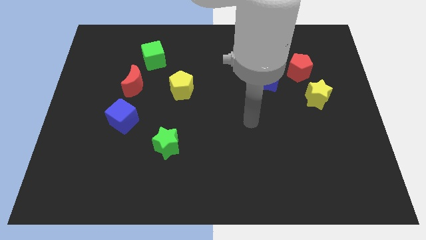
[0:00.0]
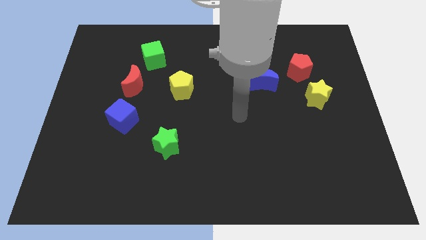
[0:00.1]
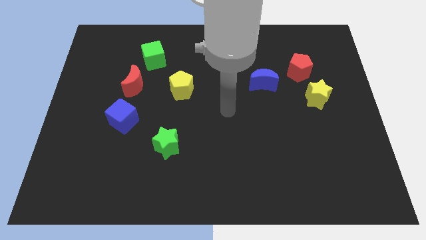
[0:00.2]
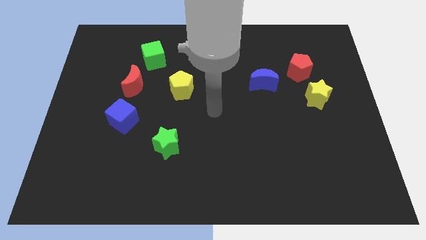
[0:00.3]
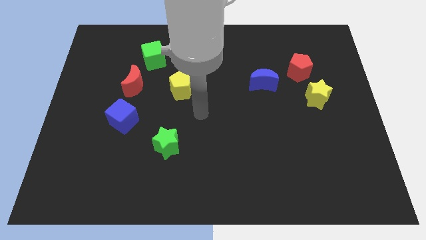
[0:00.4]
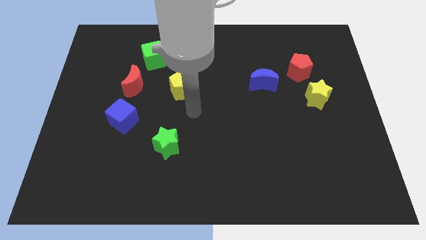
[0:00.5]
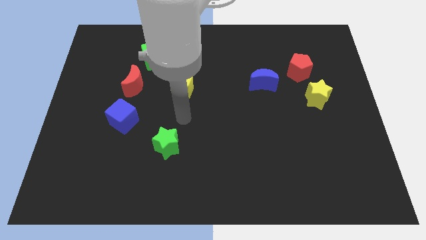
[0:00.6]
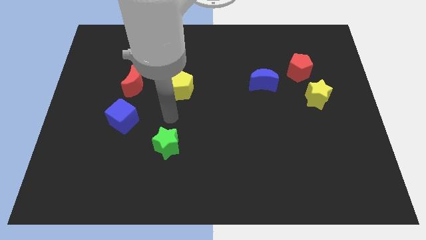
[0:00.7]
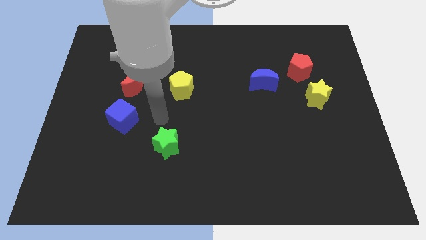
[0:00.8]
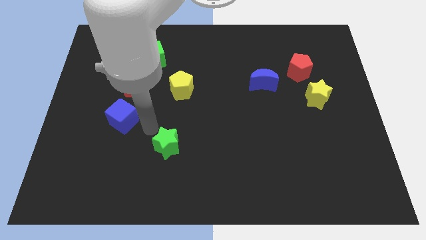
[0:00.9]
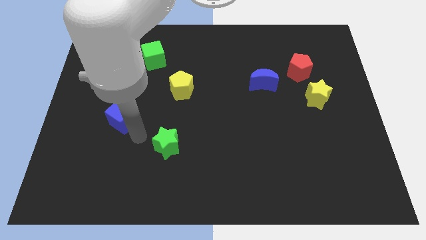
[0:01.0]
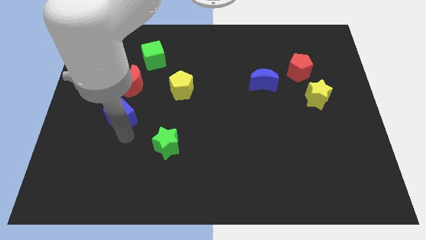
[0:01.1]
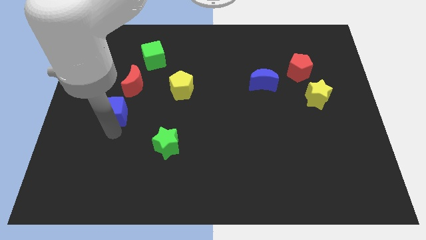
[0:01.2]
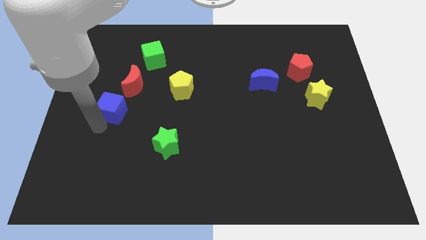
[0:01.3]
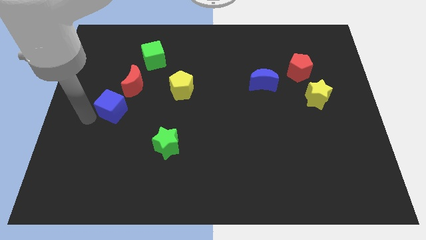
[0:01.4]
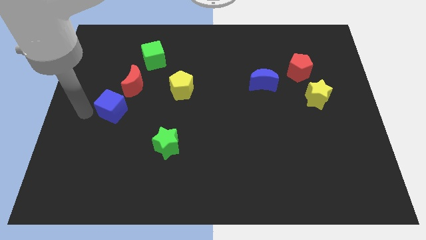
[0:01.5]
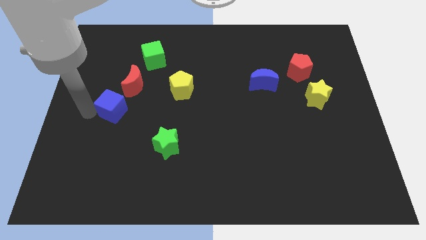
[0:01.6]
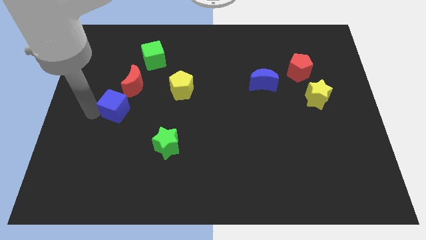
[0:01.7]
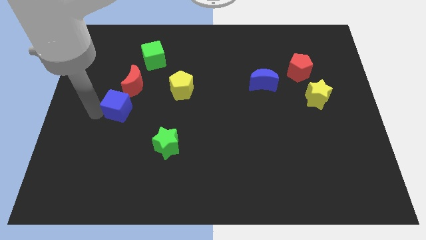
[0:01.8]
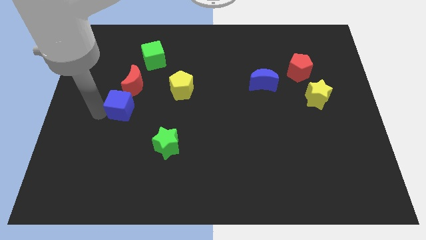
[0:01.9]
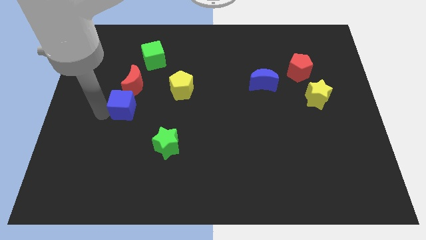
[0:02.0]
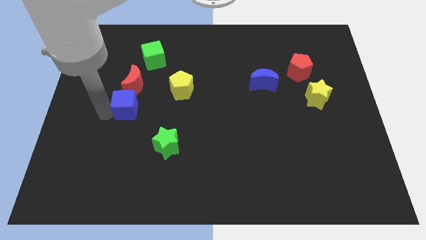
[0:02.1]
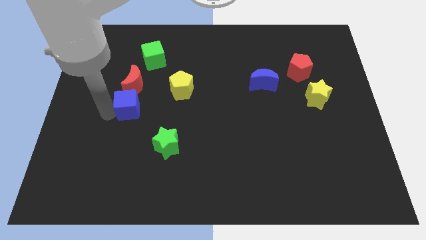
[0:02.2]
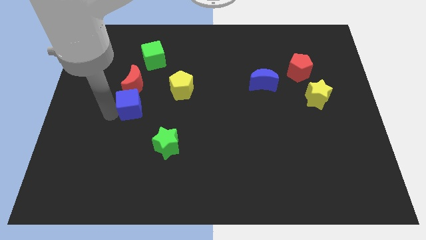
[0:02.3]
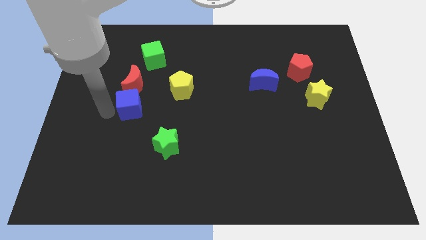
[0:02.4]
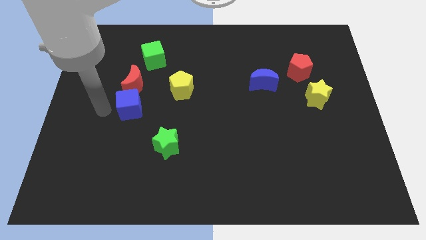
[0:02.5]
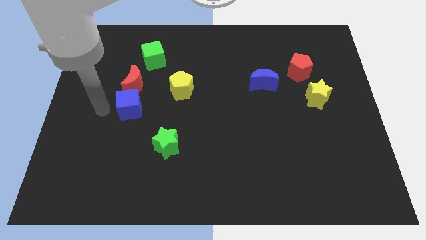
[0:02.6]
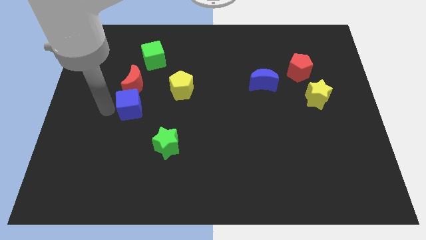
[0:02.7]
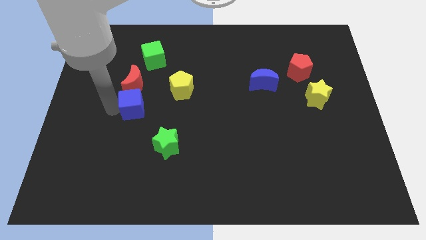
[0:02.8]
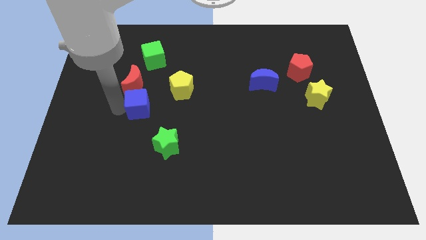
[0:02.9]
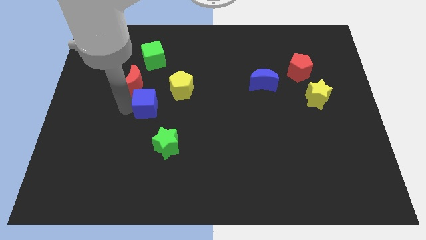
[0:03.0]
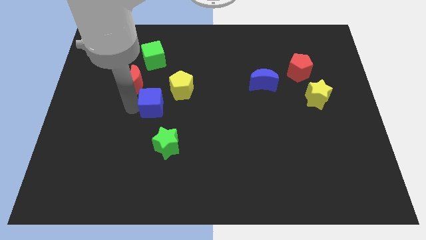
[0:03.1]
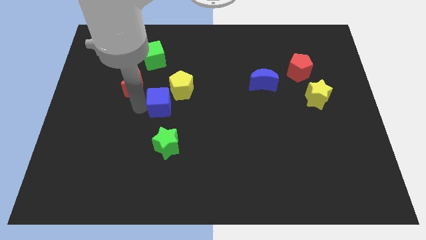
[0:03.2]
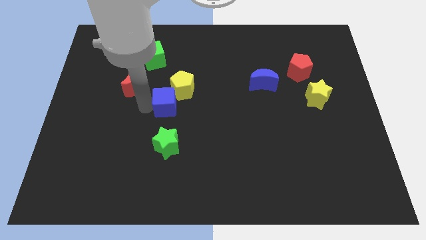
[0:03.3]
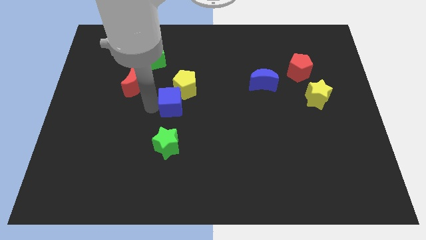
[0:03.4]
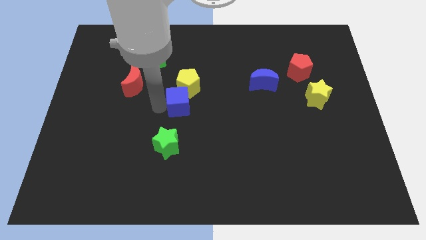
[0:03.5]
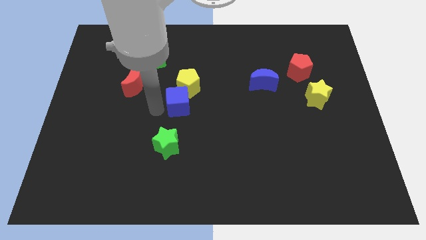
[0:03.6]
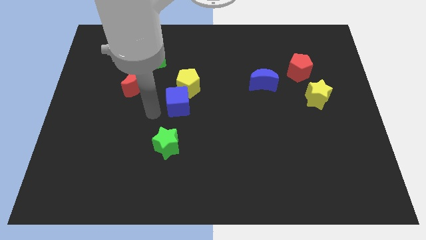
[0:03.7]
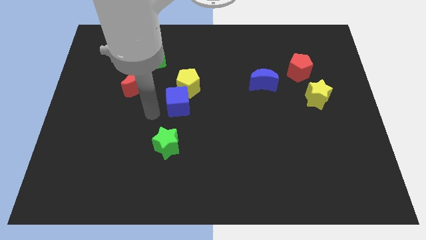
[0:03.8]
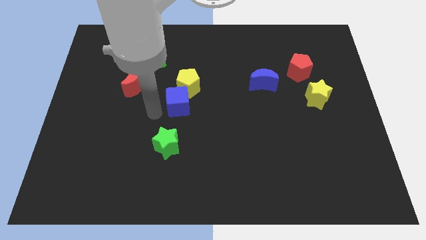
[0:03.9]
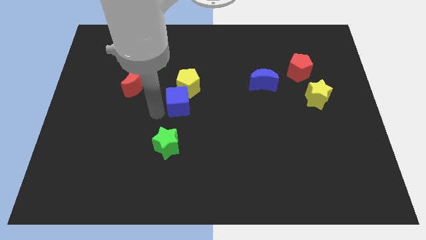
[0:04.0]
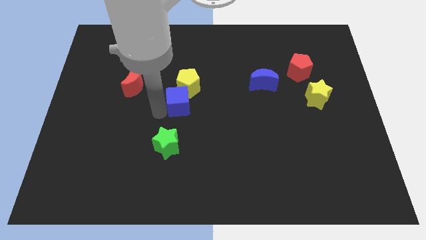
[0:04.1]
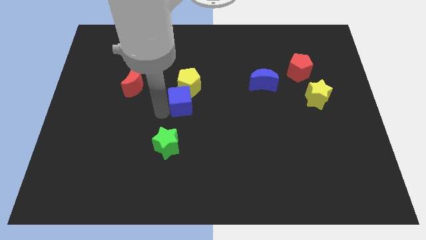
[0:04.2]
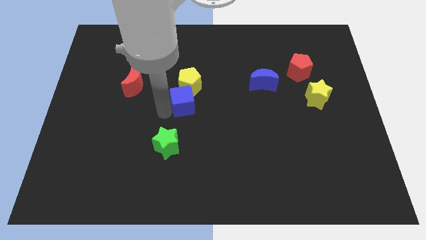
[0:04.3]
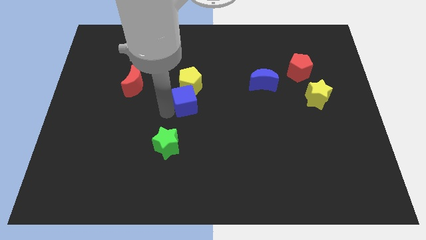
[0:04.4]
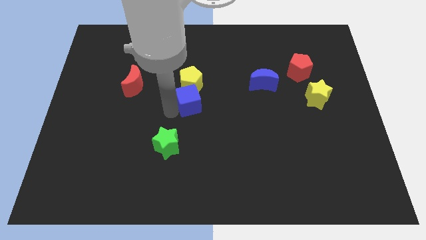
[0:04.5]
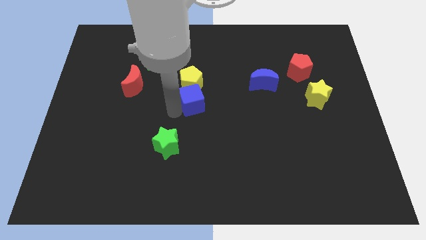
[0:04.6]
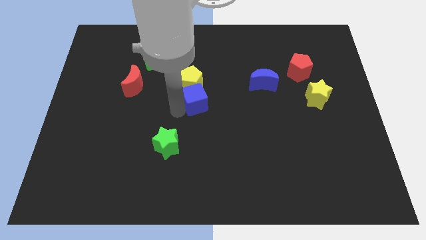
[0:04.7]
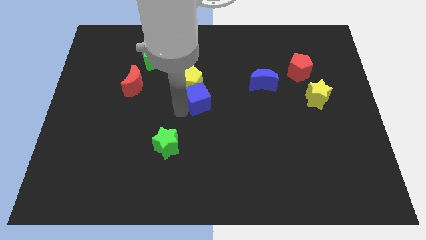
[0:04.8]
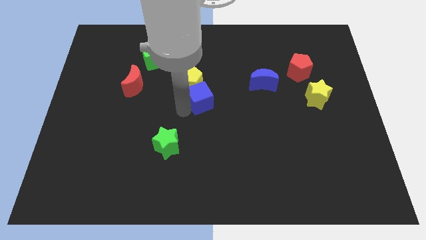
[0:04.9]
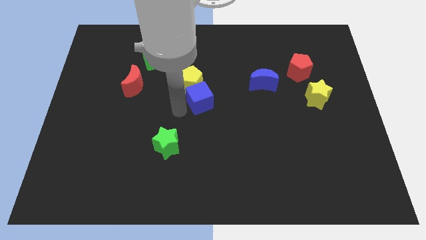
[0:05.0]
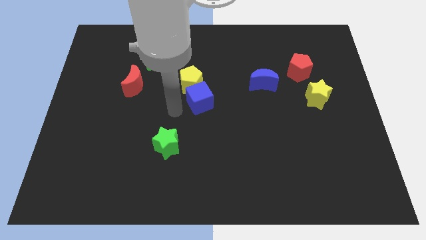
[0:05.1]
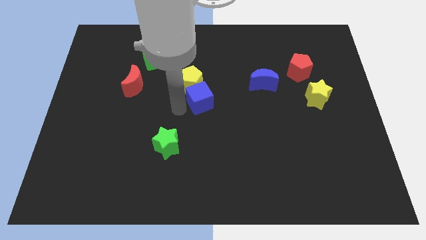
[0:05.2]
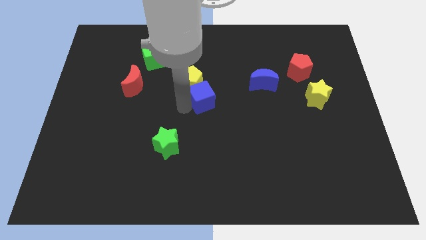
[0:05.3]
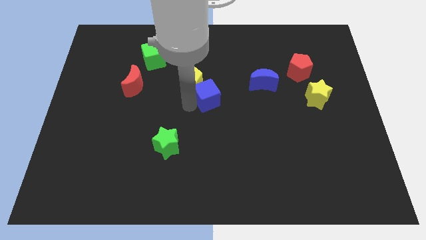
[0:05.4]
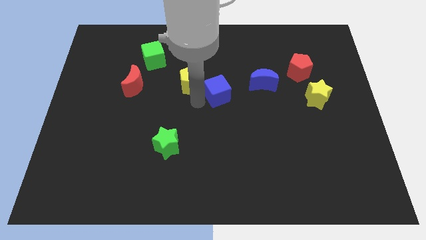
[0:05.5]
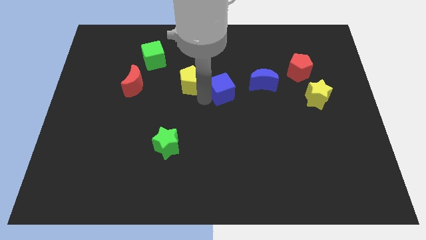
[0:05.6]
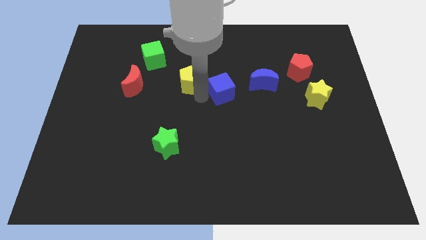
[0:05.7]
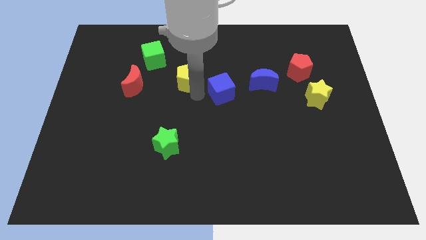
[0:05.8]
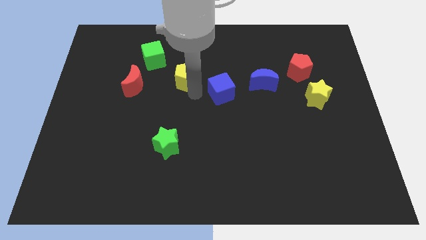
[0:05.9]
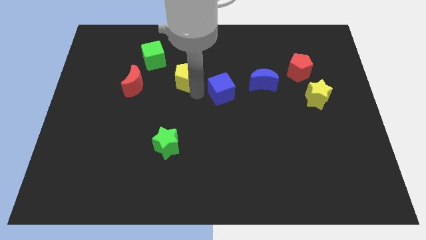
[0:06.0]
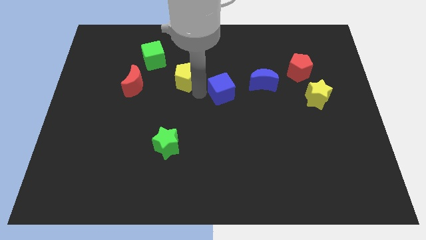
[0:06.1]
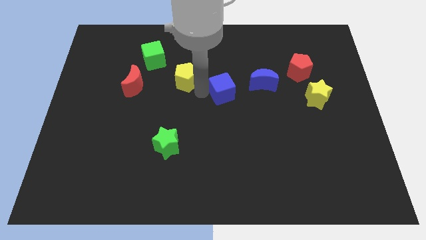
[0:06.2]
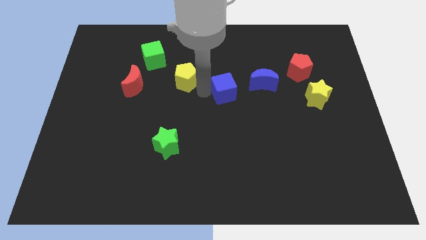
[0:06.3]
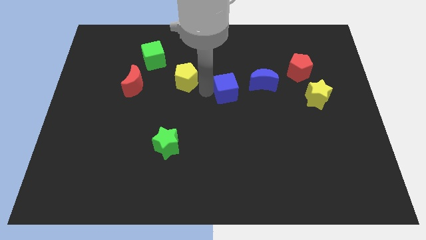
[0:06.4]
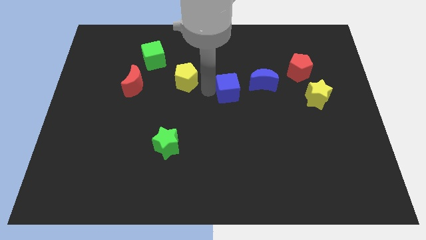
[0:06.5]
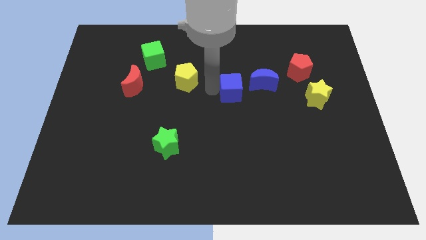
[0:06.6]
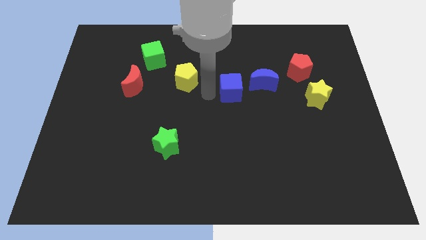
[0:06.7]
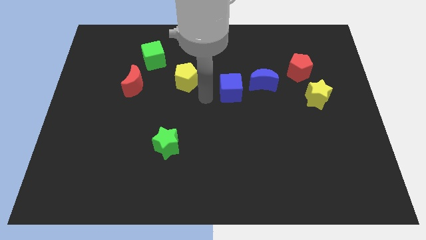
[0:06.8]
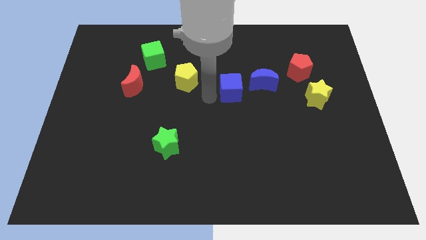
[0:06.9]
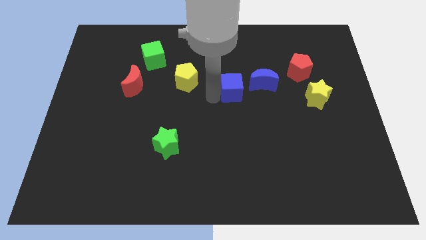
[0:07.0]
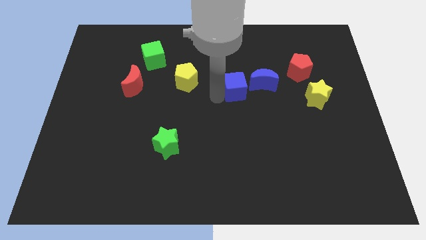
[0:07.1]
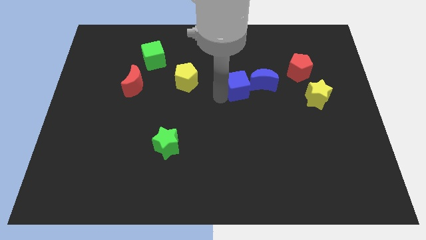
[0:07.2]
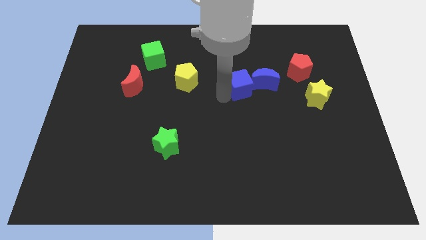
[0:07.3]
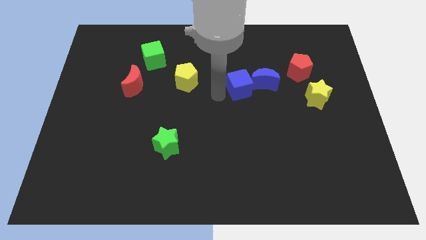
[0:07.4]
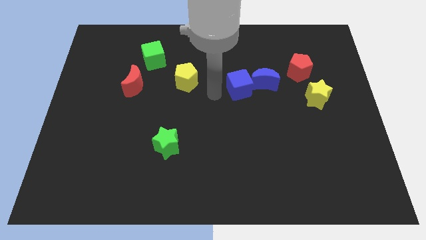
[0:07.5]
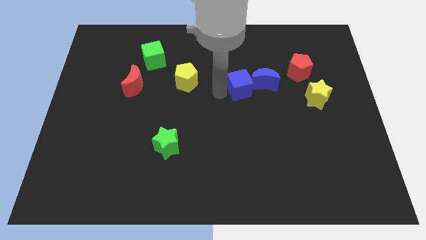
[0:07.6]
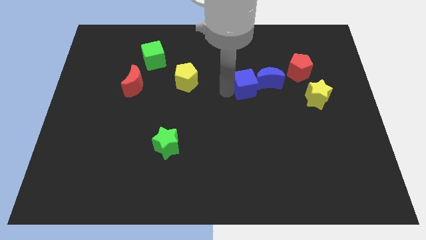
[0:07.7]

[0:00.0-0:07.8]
push the blue cube towards the blue moon
